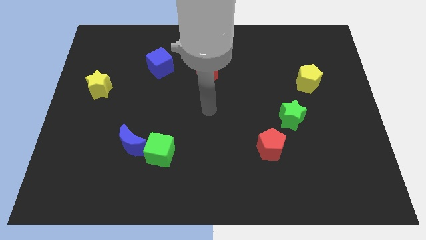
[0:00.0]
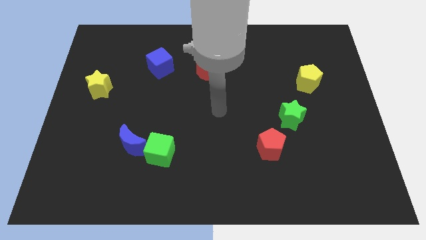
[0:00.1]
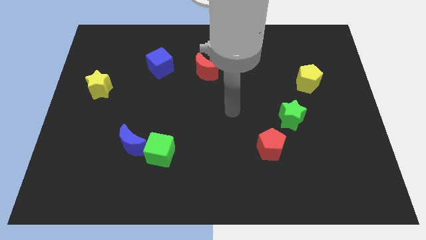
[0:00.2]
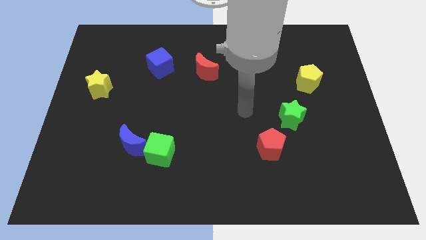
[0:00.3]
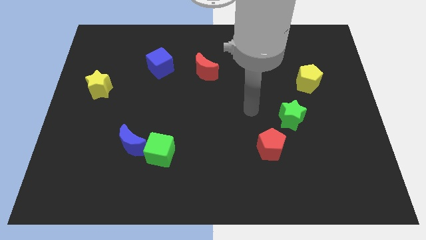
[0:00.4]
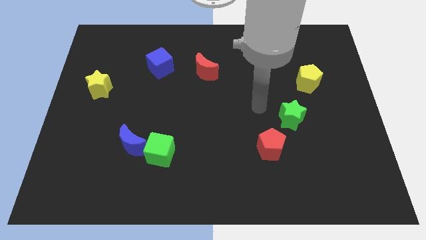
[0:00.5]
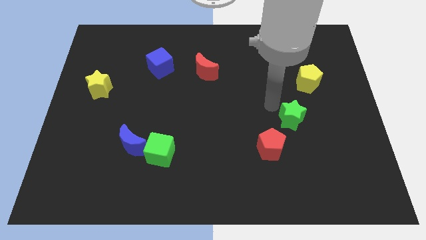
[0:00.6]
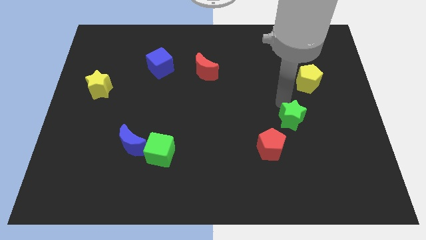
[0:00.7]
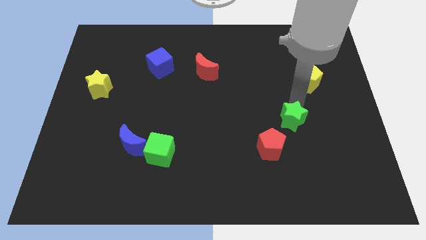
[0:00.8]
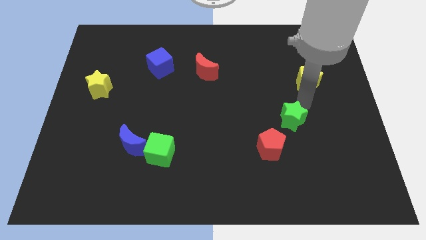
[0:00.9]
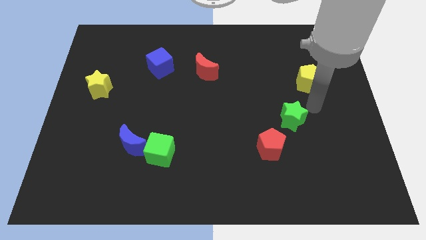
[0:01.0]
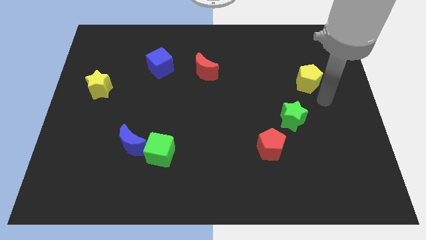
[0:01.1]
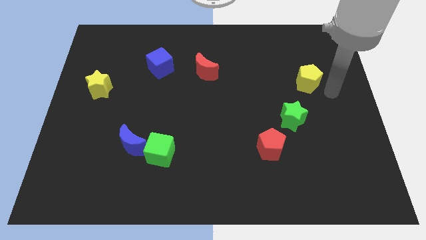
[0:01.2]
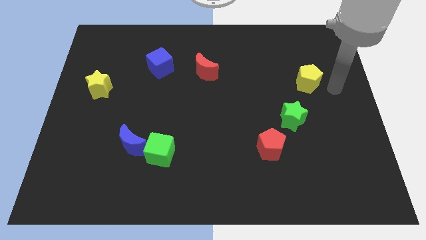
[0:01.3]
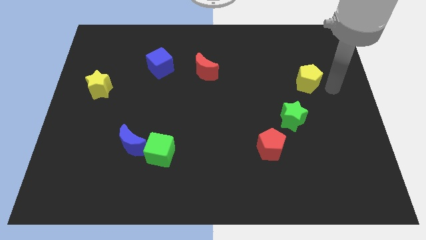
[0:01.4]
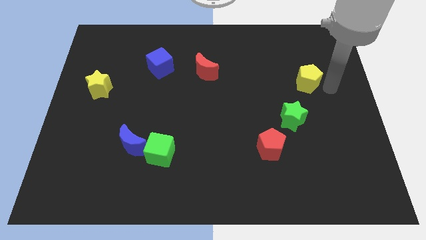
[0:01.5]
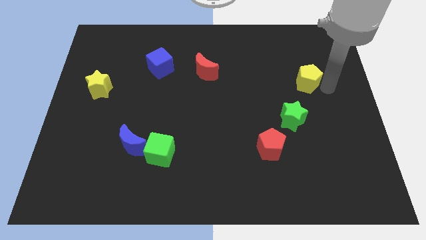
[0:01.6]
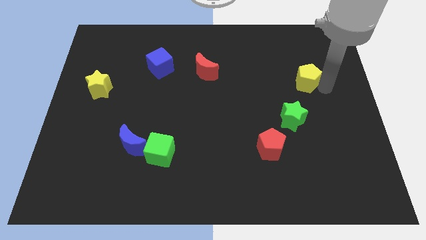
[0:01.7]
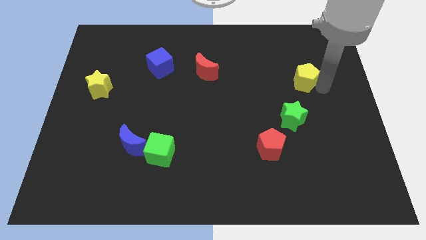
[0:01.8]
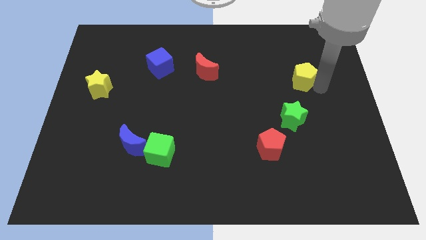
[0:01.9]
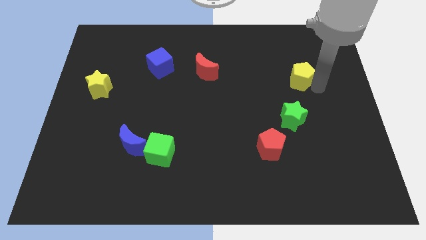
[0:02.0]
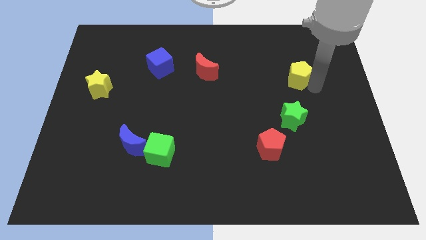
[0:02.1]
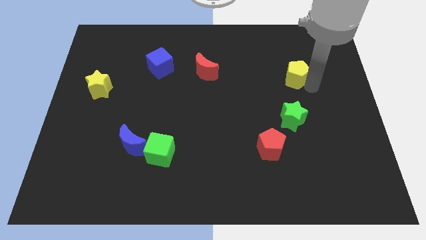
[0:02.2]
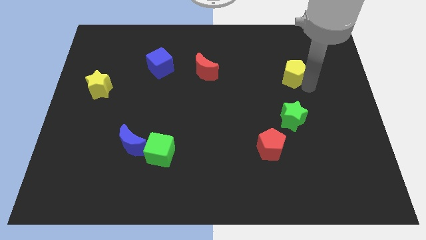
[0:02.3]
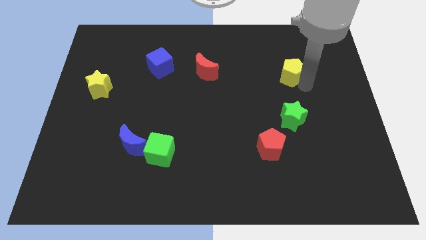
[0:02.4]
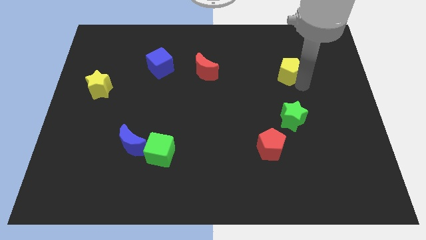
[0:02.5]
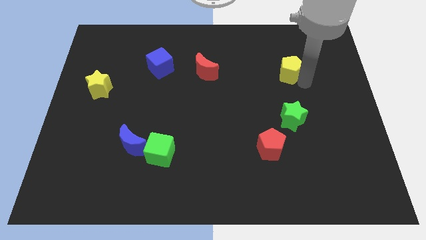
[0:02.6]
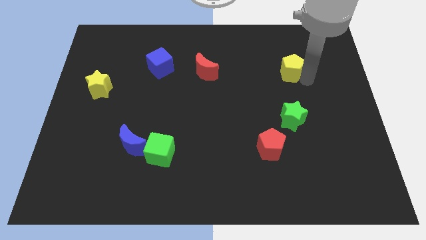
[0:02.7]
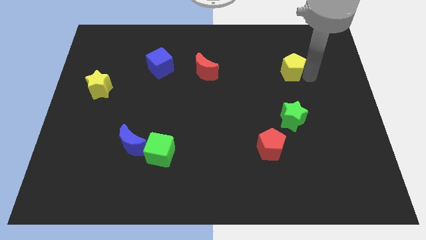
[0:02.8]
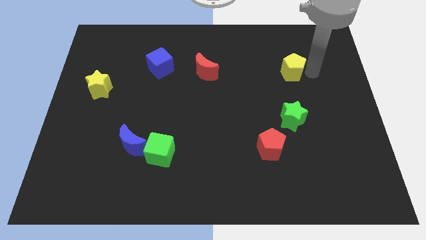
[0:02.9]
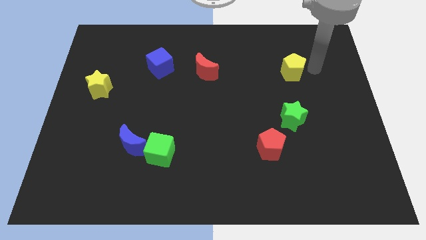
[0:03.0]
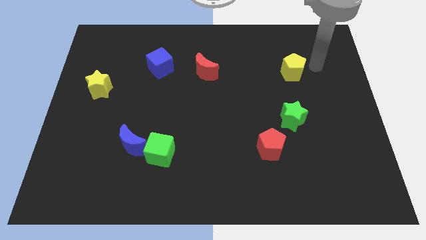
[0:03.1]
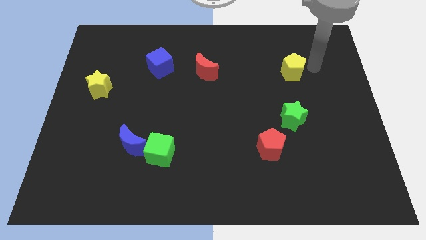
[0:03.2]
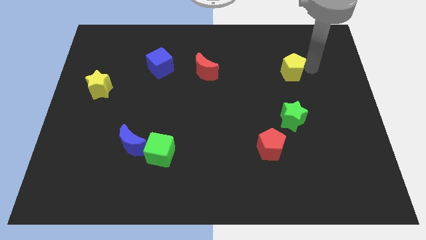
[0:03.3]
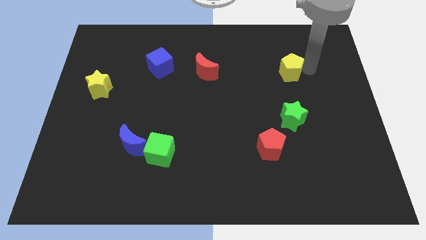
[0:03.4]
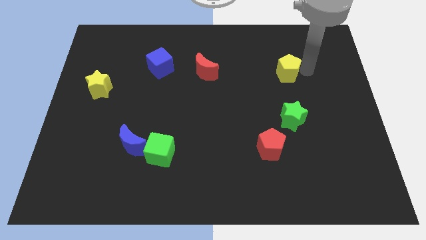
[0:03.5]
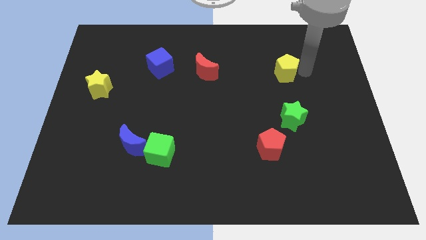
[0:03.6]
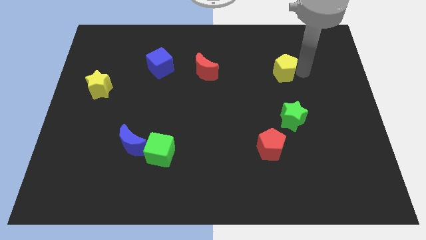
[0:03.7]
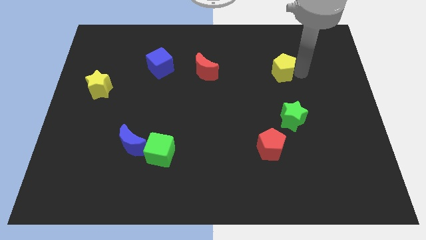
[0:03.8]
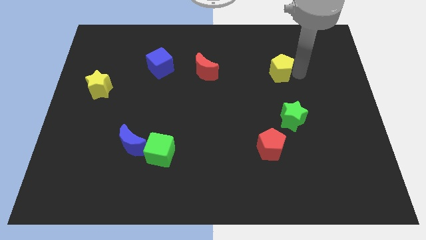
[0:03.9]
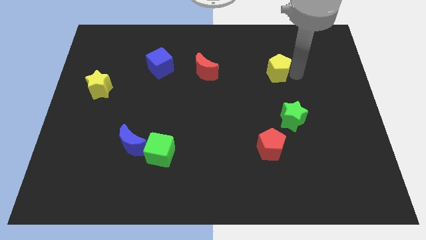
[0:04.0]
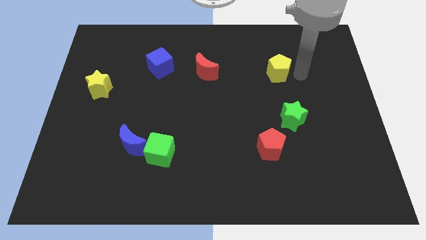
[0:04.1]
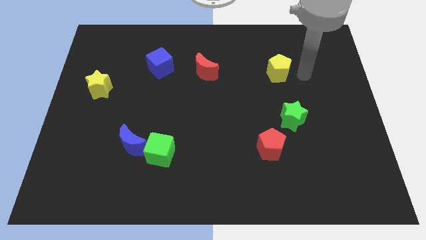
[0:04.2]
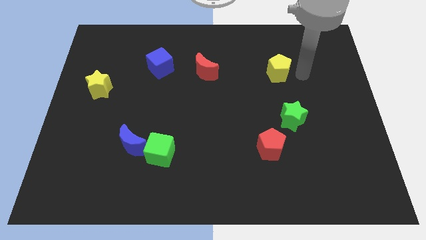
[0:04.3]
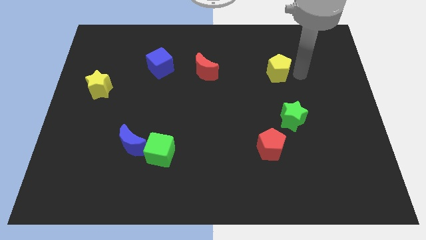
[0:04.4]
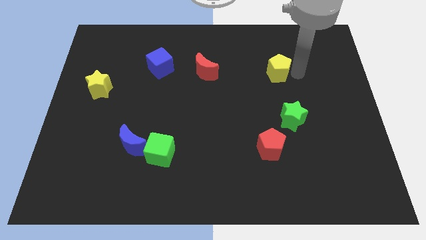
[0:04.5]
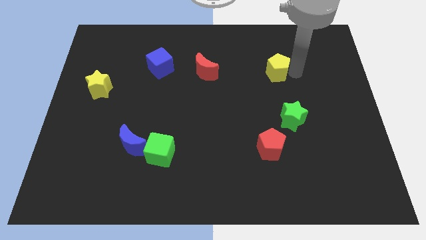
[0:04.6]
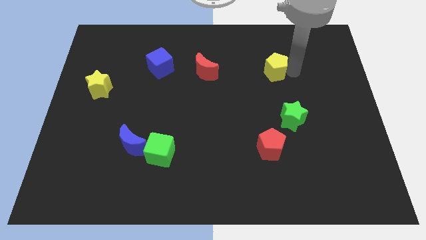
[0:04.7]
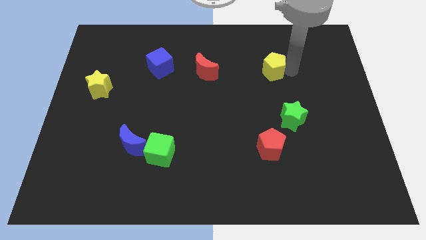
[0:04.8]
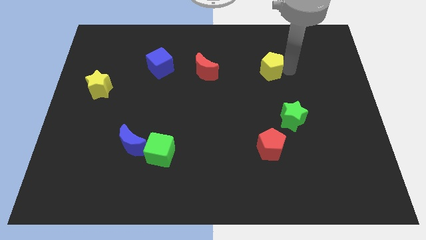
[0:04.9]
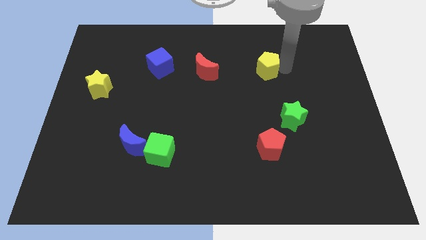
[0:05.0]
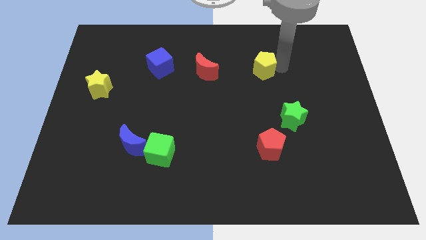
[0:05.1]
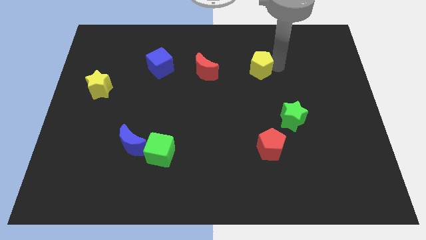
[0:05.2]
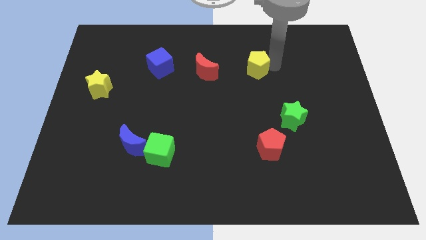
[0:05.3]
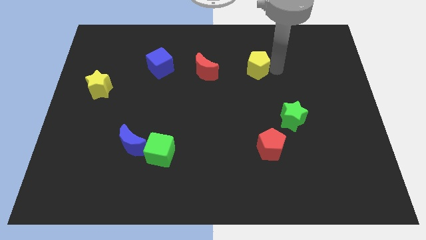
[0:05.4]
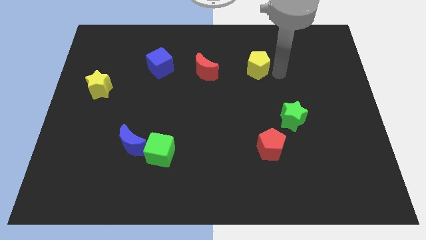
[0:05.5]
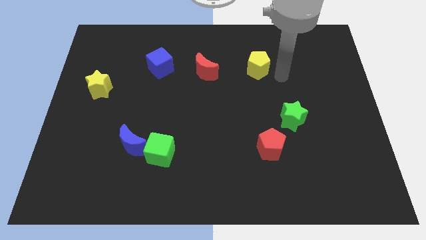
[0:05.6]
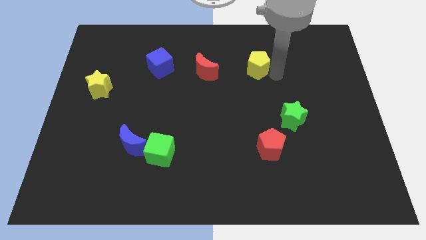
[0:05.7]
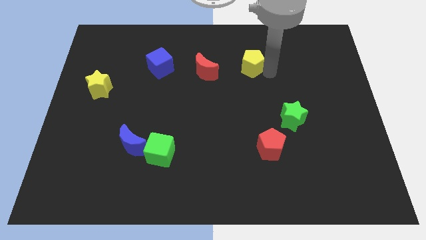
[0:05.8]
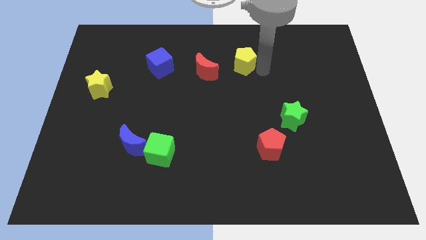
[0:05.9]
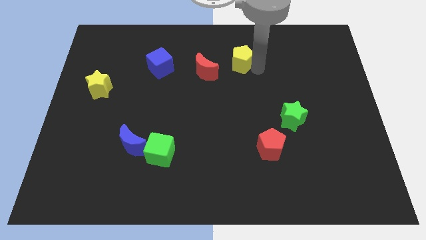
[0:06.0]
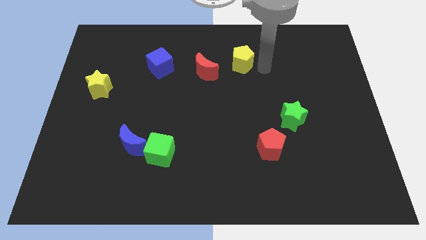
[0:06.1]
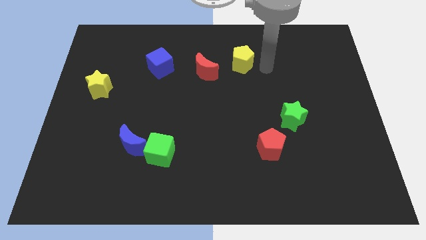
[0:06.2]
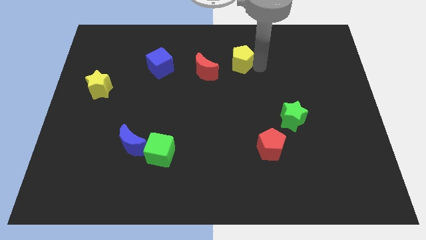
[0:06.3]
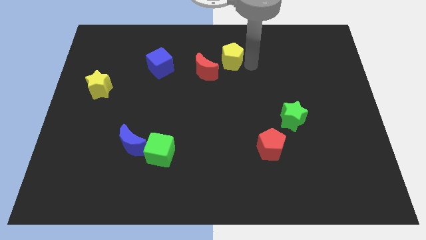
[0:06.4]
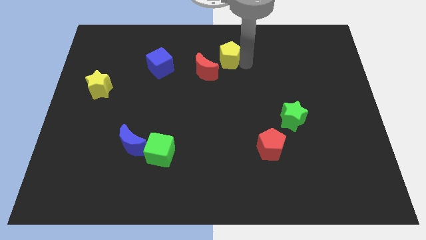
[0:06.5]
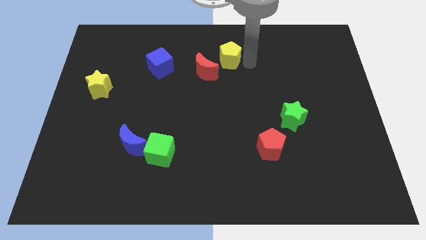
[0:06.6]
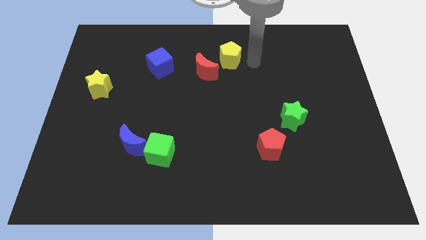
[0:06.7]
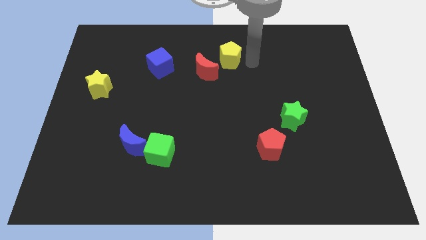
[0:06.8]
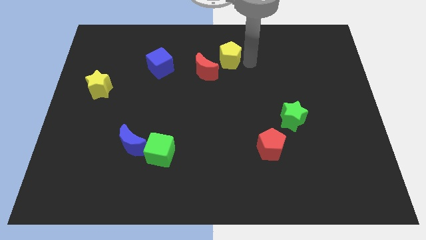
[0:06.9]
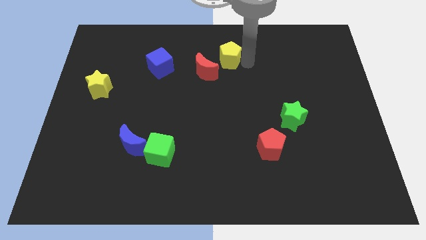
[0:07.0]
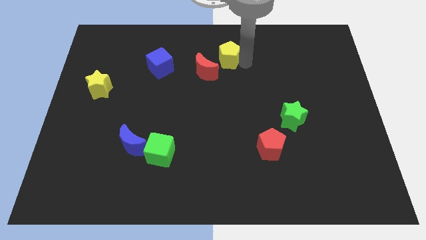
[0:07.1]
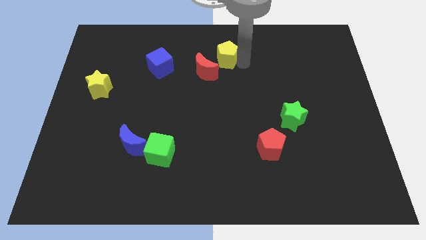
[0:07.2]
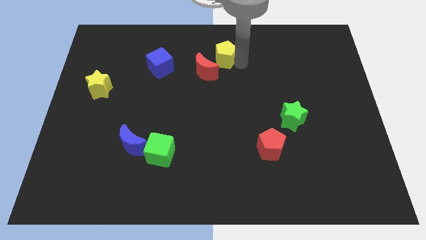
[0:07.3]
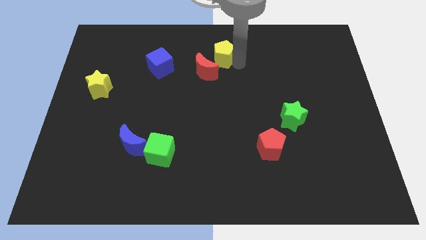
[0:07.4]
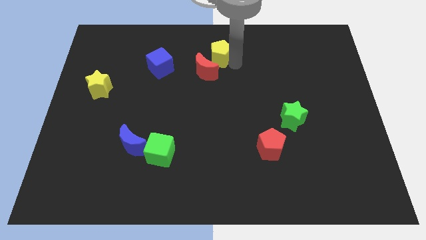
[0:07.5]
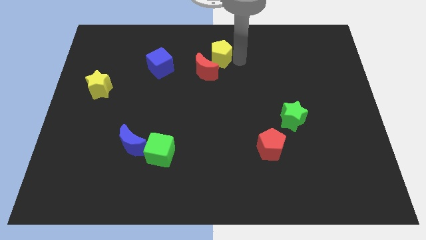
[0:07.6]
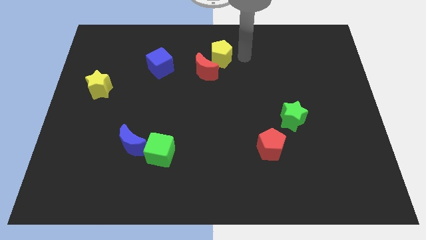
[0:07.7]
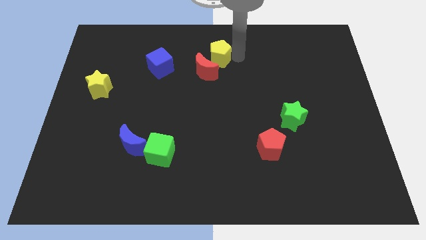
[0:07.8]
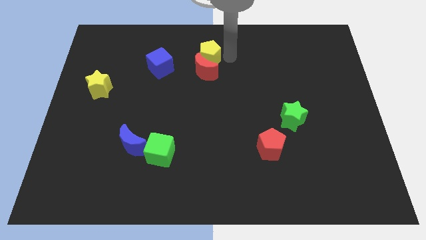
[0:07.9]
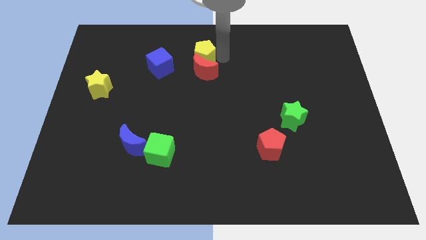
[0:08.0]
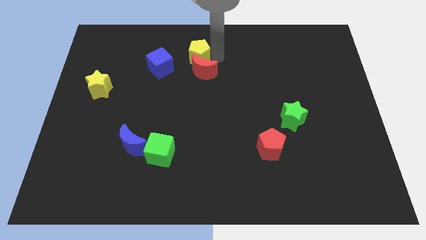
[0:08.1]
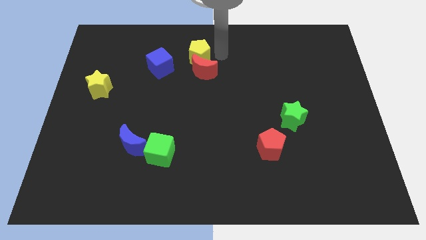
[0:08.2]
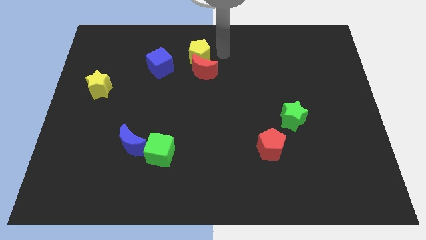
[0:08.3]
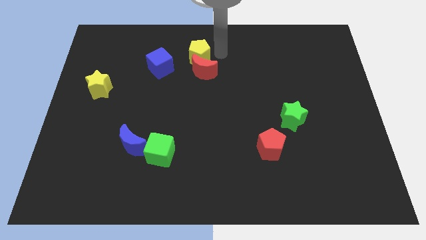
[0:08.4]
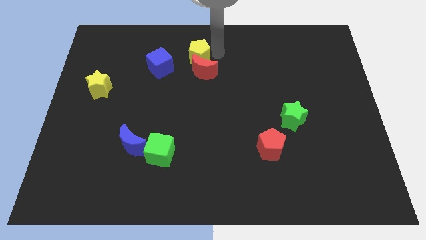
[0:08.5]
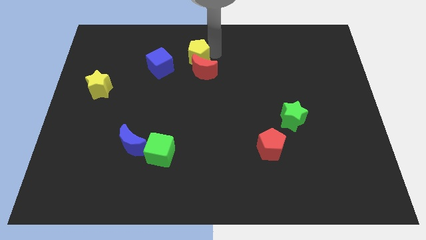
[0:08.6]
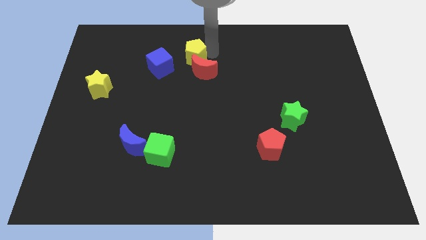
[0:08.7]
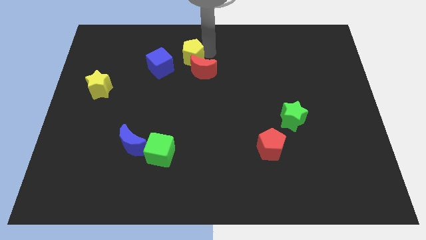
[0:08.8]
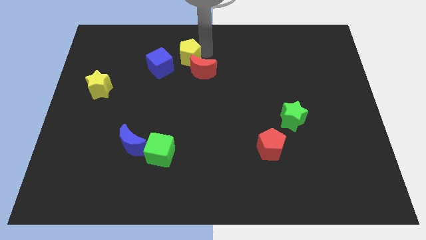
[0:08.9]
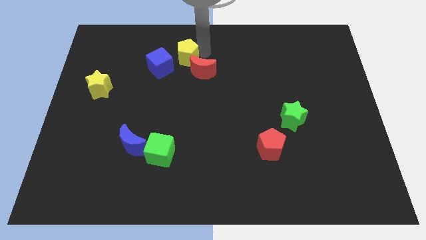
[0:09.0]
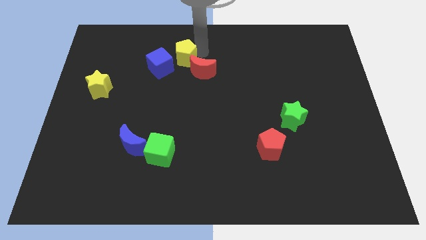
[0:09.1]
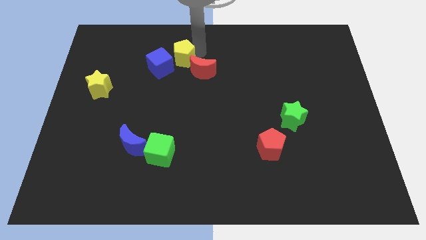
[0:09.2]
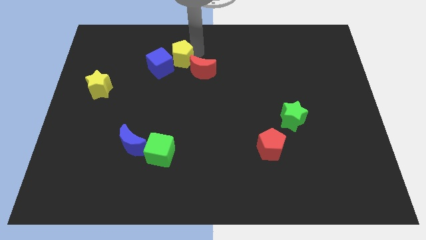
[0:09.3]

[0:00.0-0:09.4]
push the yellow pentagon towards the blue cube
